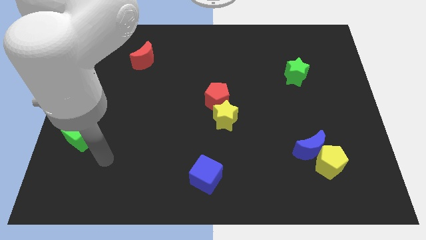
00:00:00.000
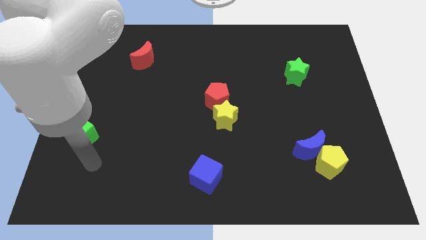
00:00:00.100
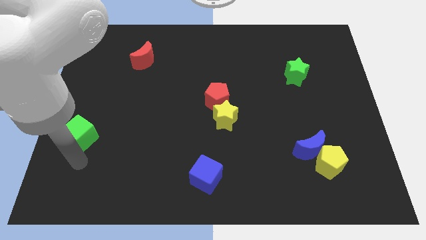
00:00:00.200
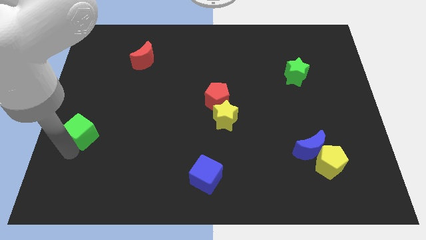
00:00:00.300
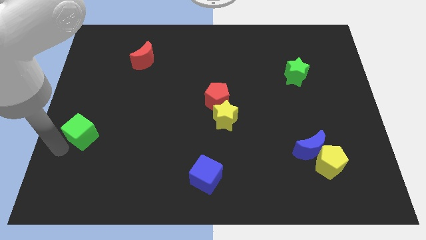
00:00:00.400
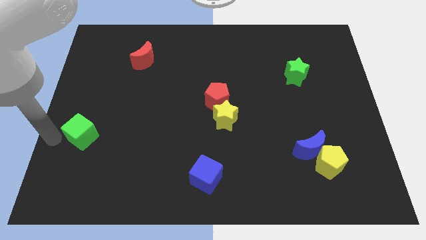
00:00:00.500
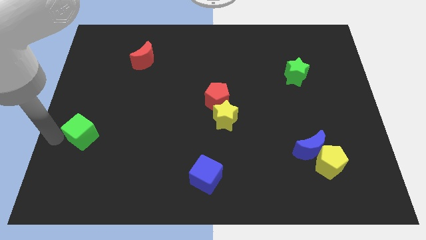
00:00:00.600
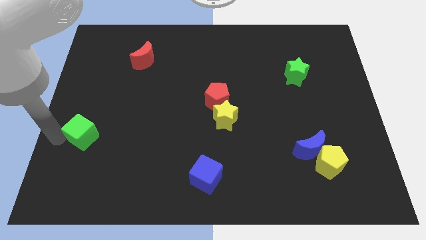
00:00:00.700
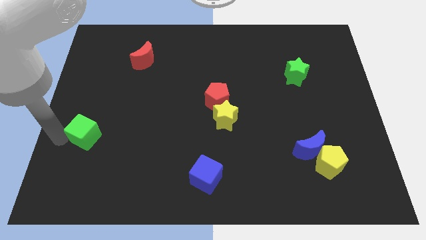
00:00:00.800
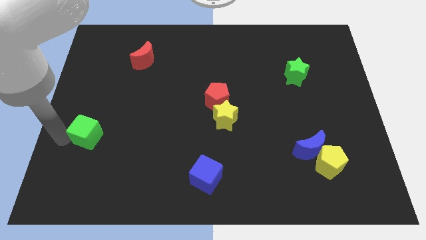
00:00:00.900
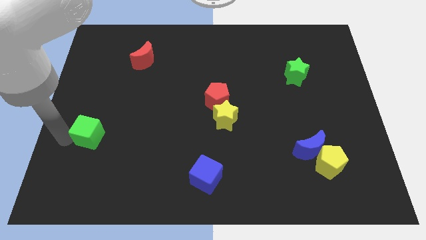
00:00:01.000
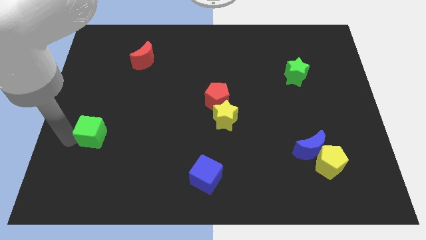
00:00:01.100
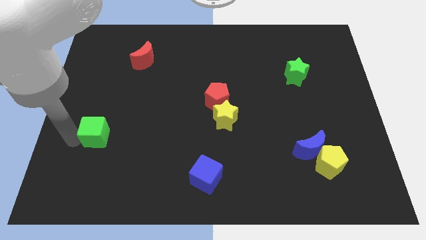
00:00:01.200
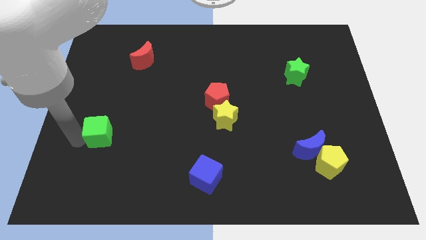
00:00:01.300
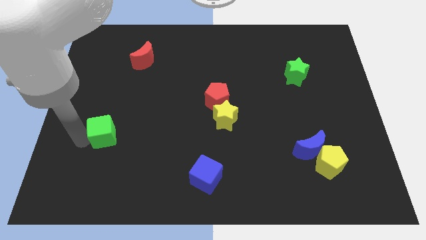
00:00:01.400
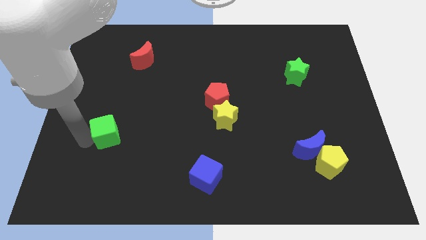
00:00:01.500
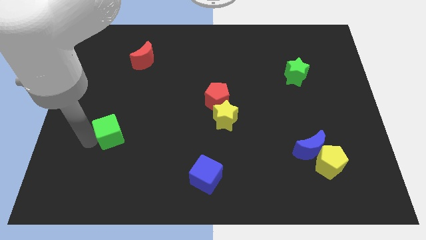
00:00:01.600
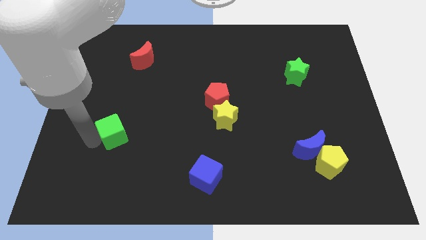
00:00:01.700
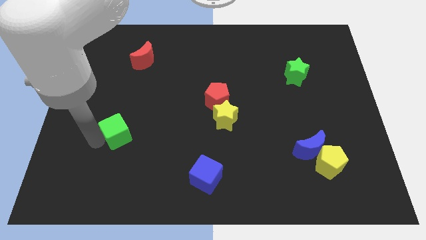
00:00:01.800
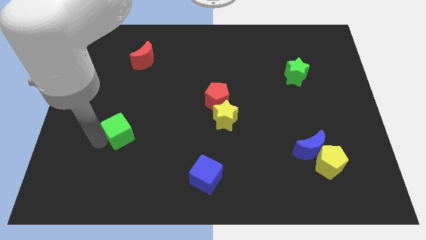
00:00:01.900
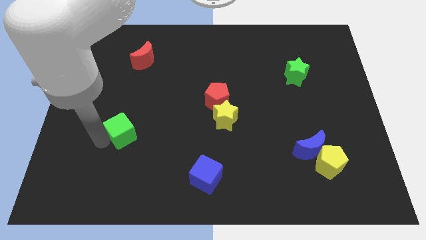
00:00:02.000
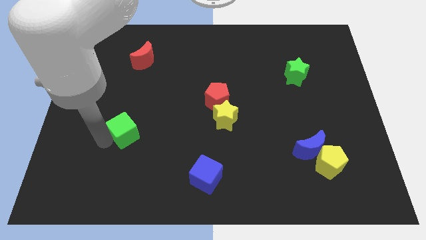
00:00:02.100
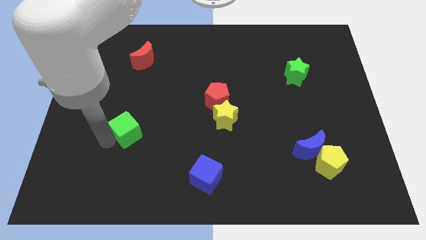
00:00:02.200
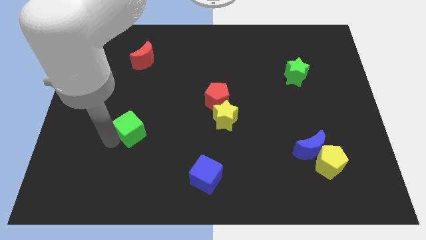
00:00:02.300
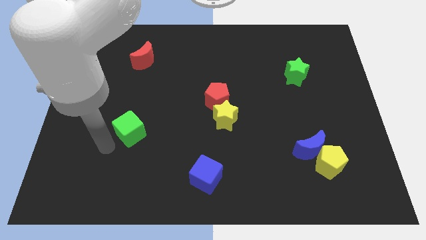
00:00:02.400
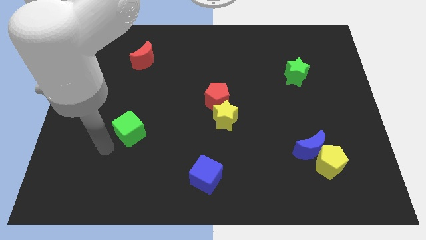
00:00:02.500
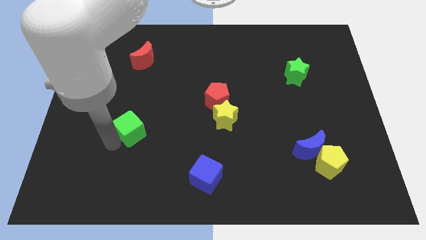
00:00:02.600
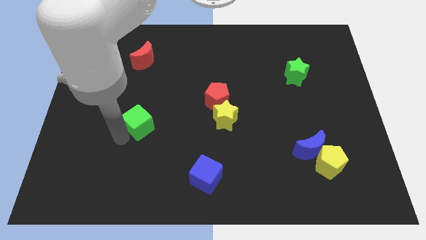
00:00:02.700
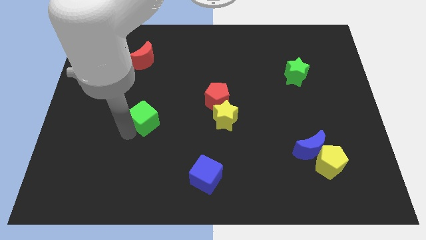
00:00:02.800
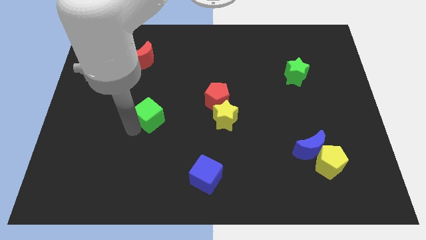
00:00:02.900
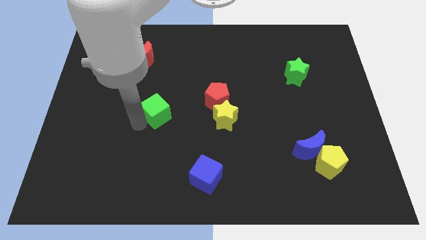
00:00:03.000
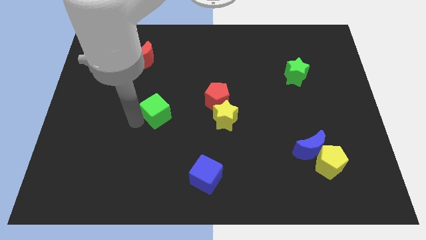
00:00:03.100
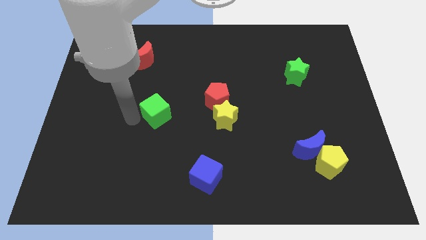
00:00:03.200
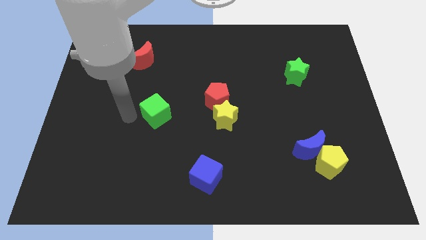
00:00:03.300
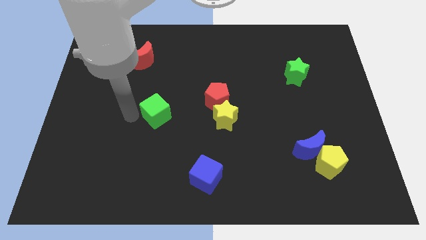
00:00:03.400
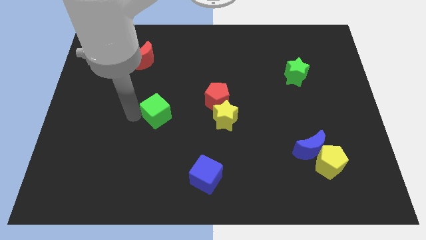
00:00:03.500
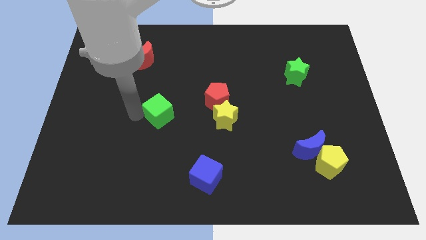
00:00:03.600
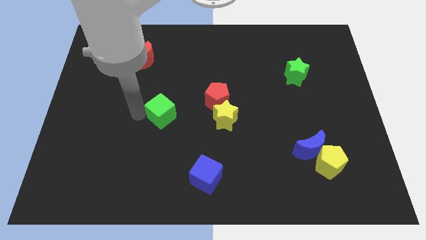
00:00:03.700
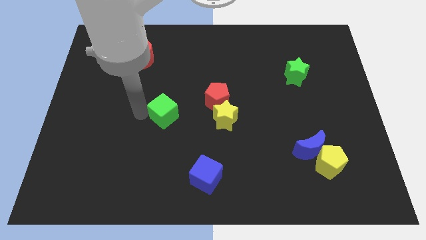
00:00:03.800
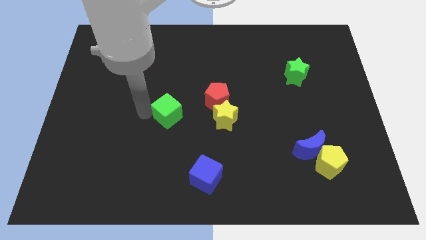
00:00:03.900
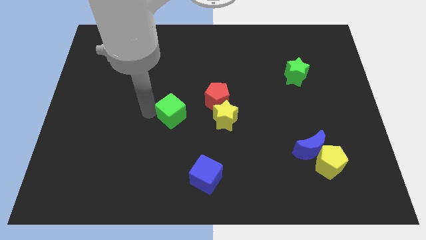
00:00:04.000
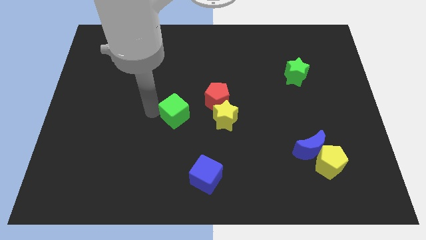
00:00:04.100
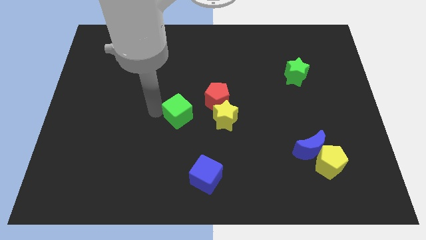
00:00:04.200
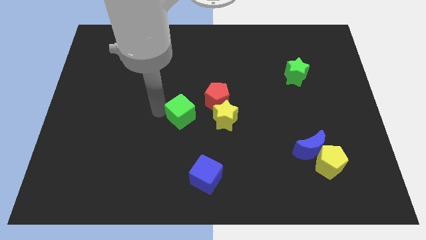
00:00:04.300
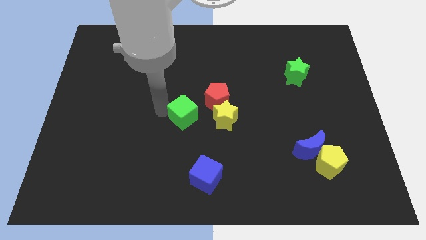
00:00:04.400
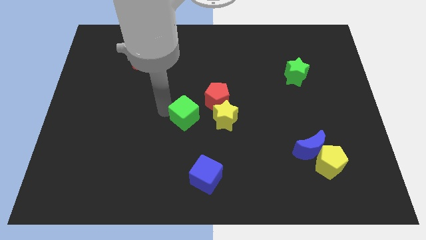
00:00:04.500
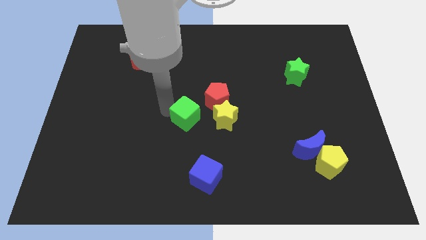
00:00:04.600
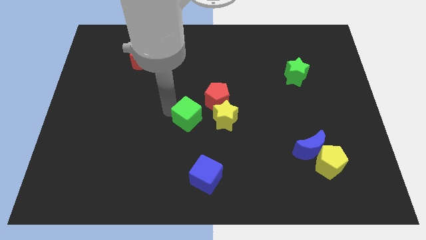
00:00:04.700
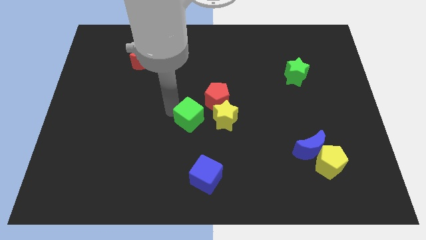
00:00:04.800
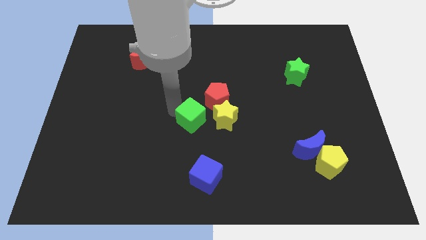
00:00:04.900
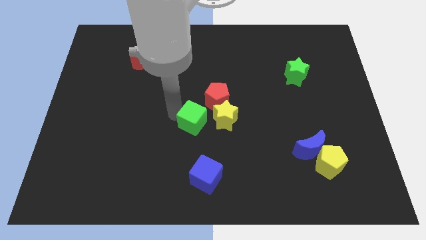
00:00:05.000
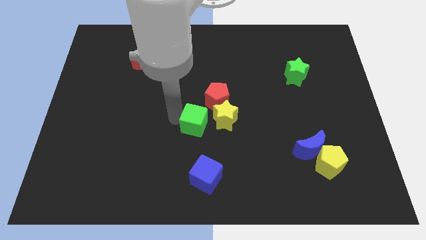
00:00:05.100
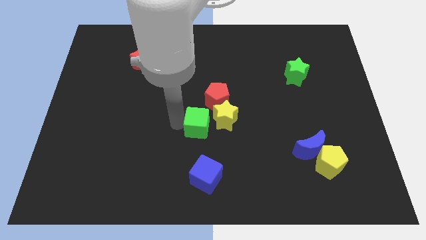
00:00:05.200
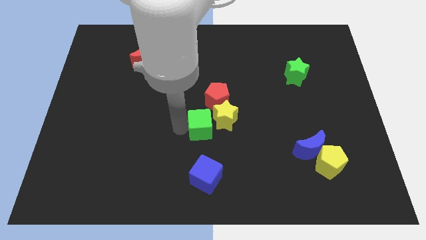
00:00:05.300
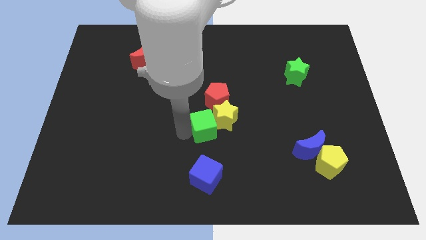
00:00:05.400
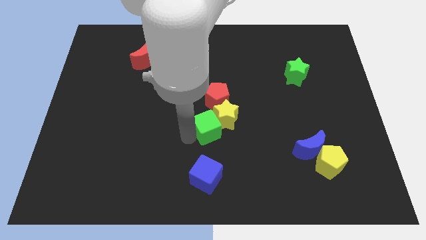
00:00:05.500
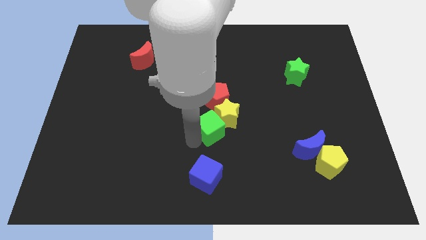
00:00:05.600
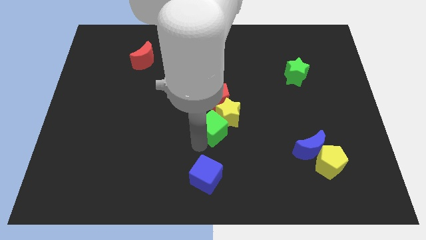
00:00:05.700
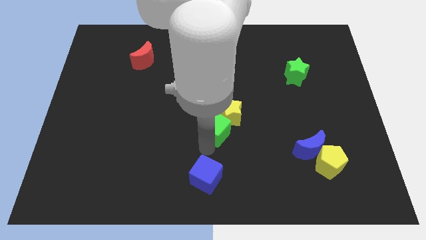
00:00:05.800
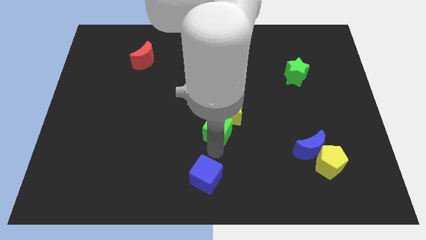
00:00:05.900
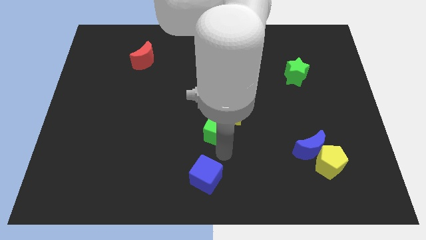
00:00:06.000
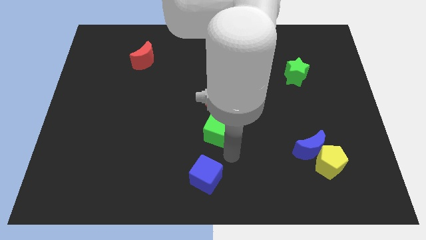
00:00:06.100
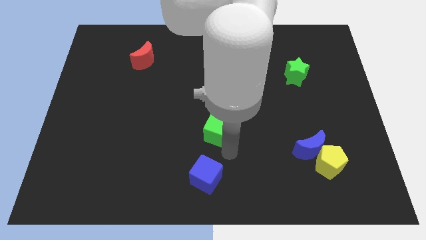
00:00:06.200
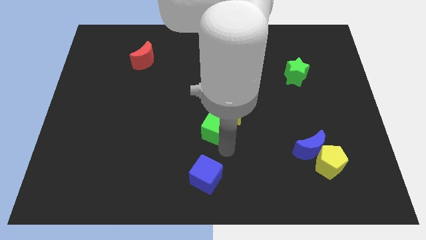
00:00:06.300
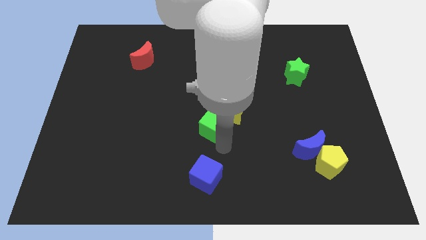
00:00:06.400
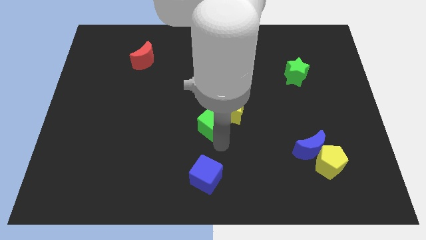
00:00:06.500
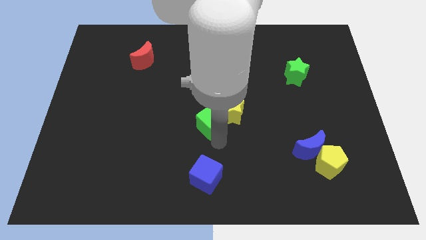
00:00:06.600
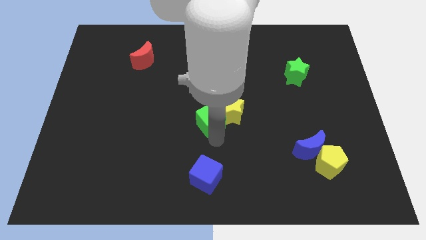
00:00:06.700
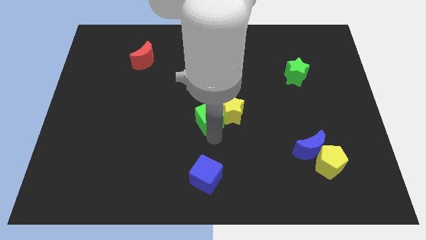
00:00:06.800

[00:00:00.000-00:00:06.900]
push the green cube to the red pentagon

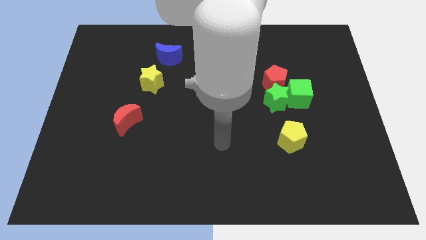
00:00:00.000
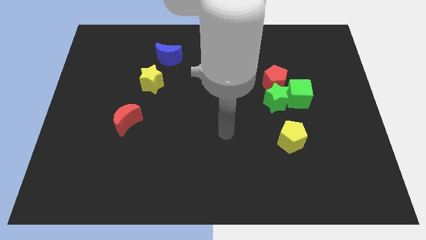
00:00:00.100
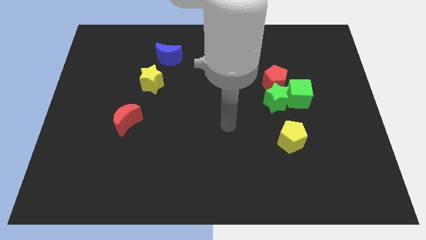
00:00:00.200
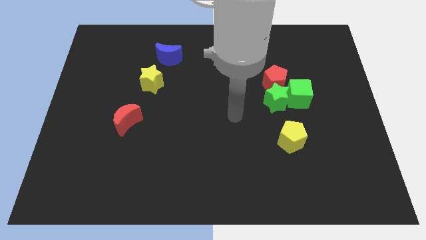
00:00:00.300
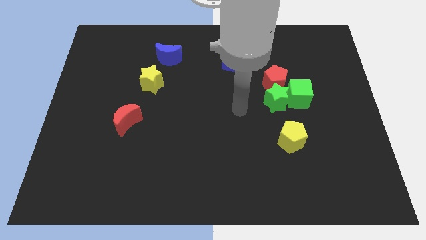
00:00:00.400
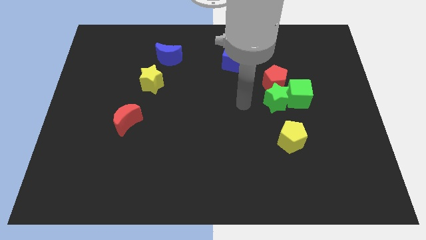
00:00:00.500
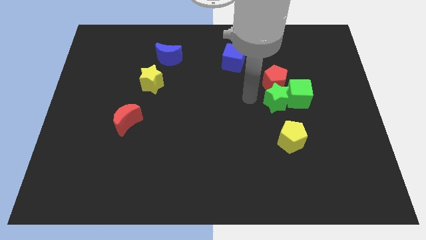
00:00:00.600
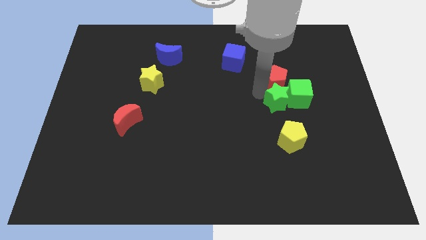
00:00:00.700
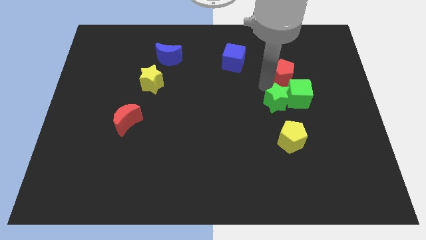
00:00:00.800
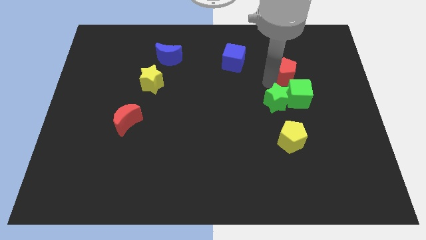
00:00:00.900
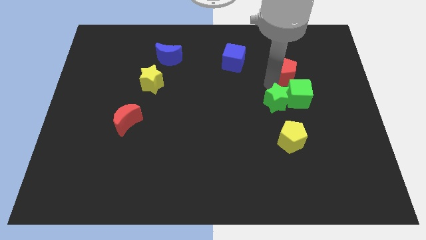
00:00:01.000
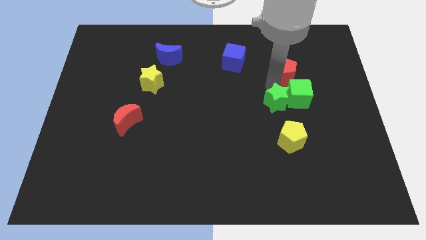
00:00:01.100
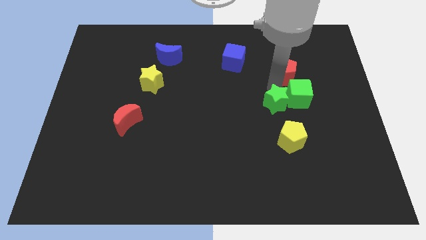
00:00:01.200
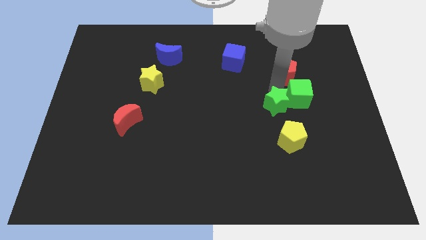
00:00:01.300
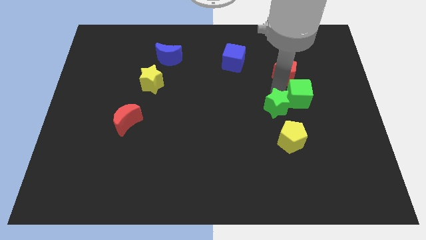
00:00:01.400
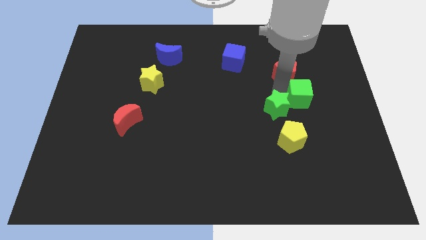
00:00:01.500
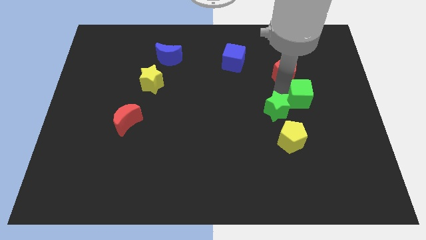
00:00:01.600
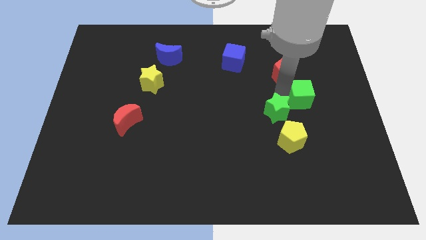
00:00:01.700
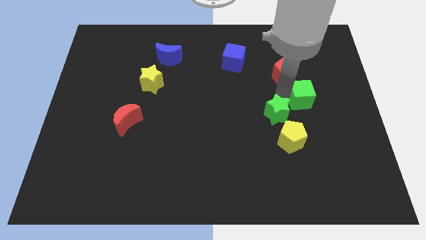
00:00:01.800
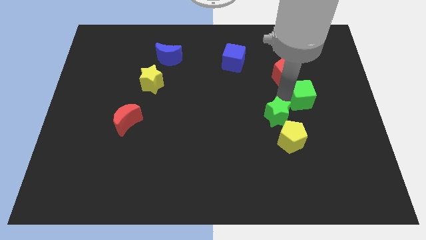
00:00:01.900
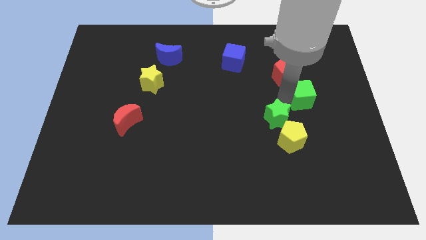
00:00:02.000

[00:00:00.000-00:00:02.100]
put the green star close to the yellow pentagon
